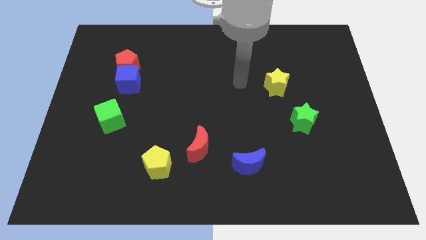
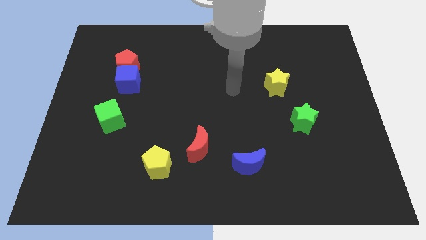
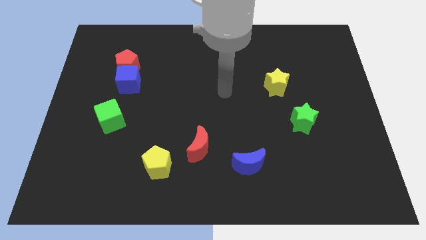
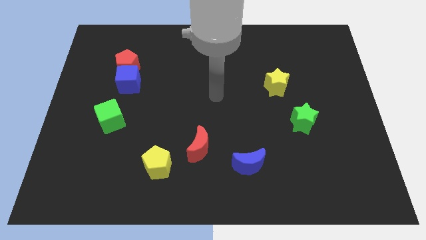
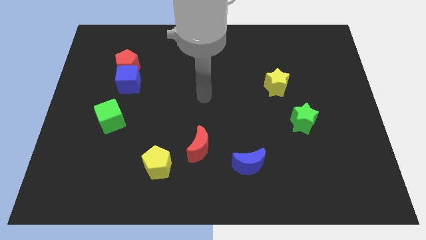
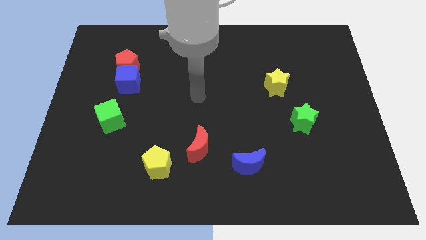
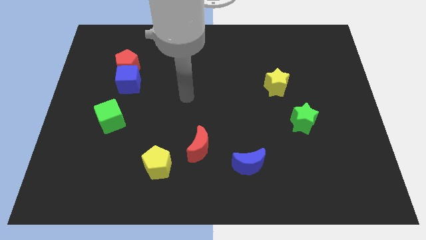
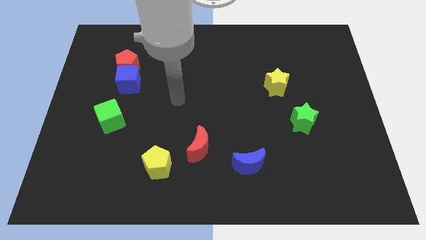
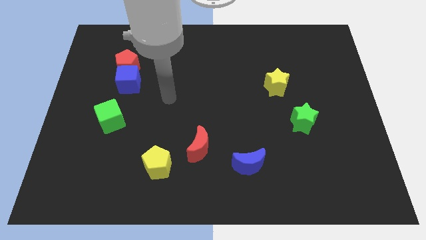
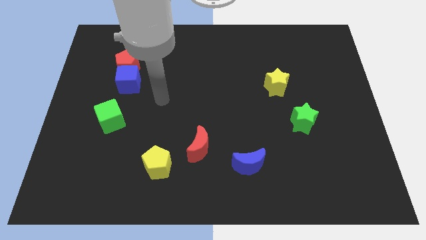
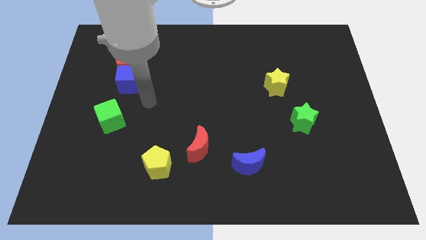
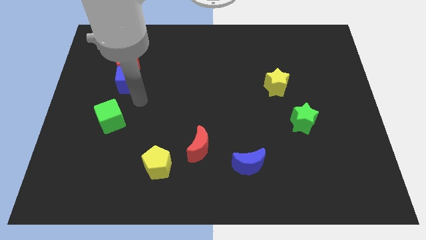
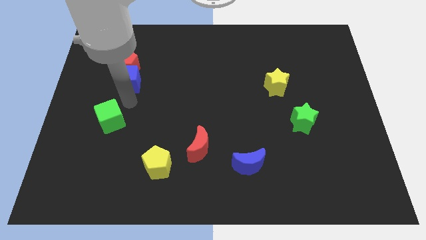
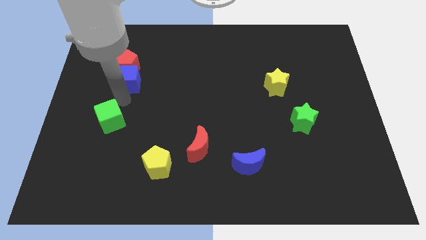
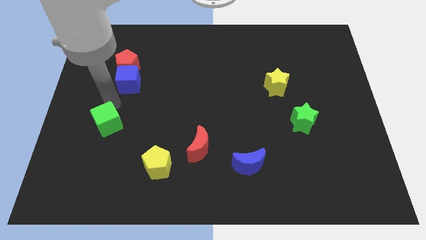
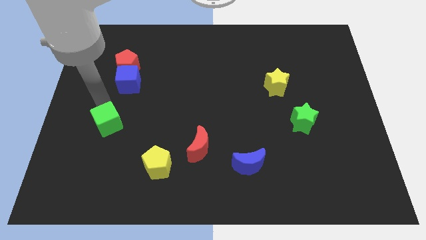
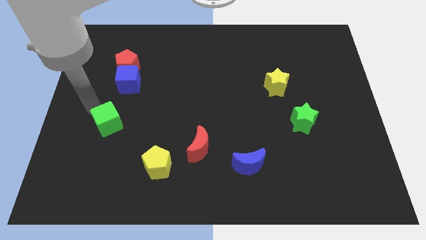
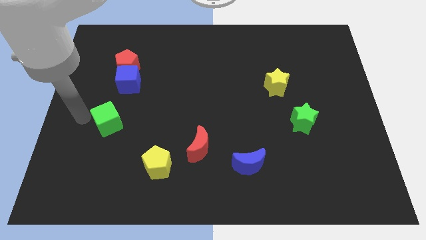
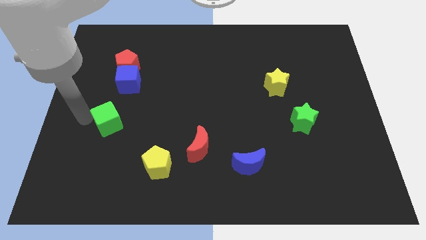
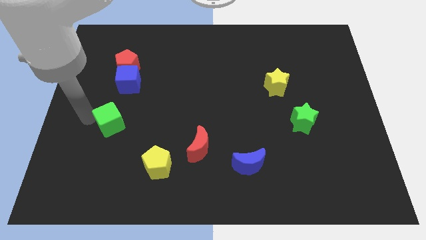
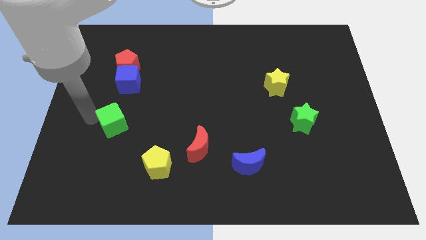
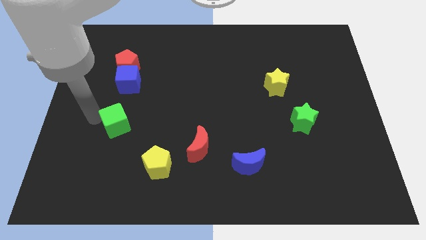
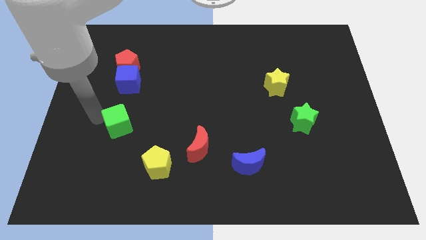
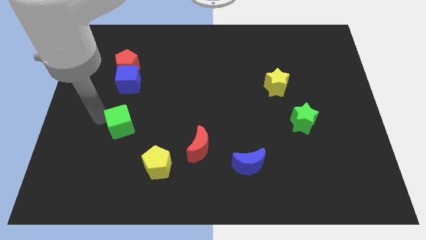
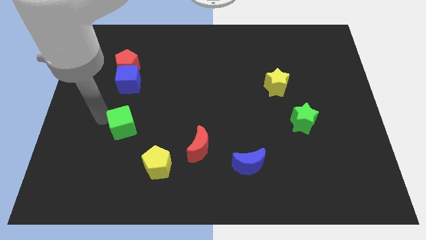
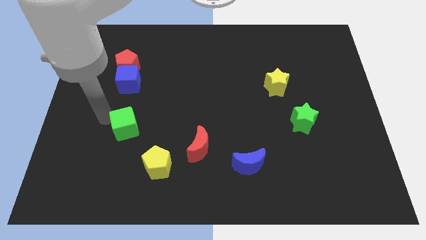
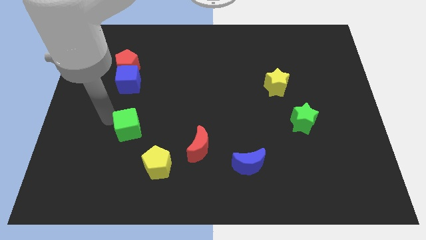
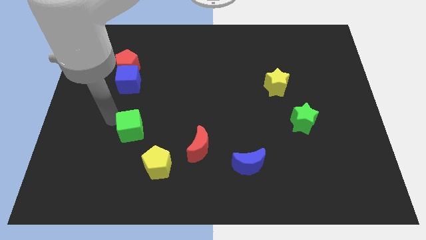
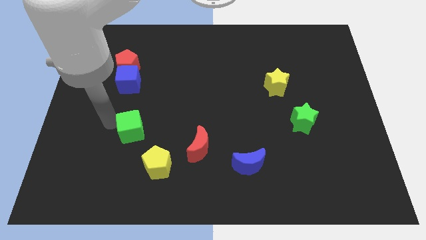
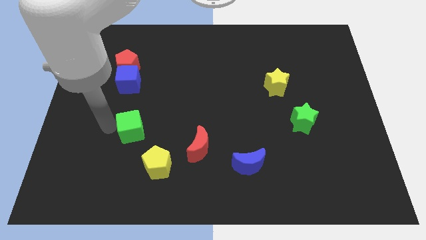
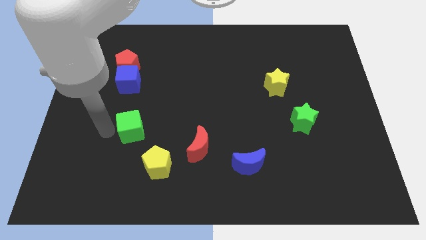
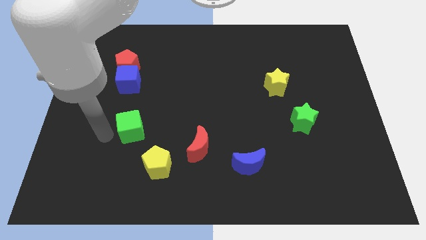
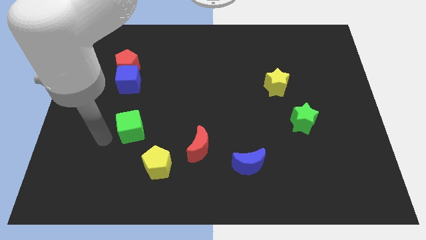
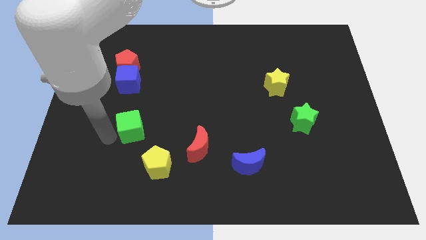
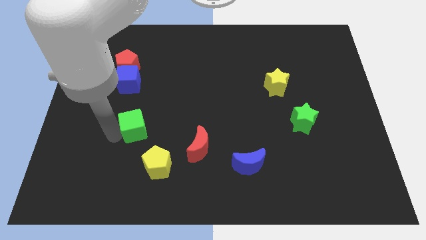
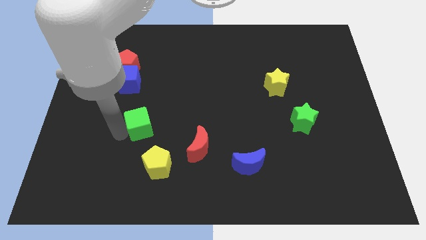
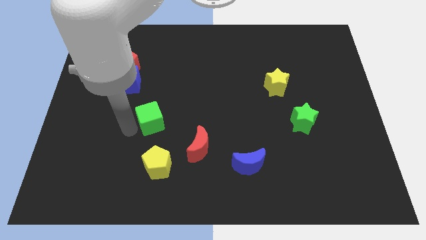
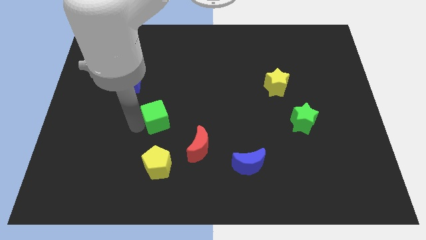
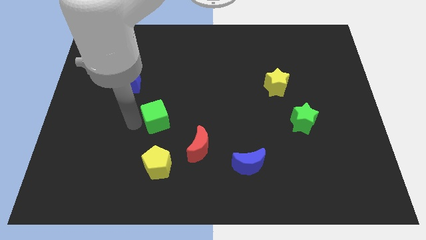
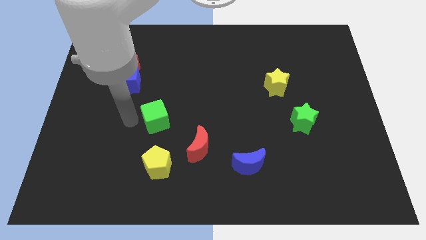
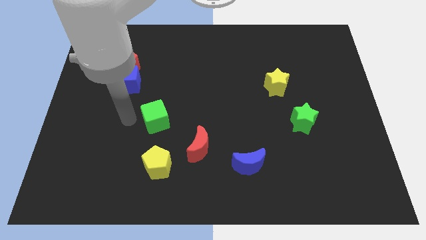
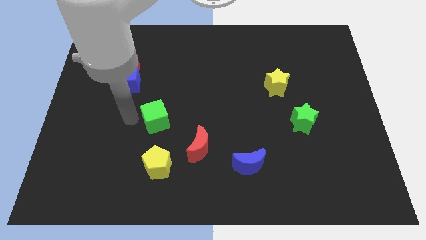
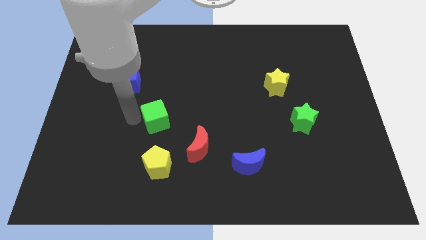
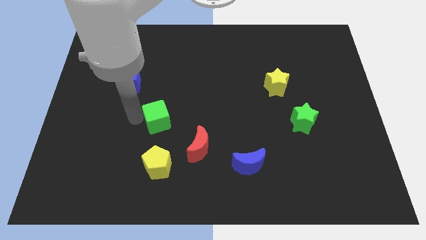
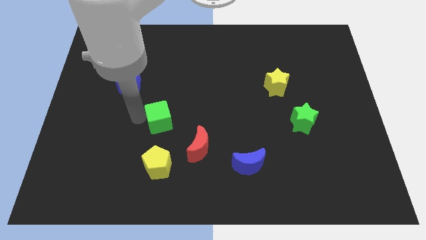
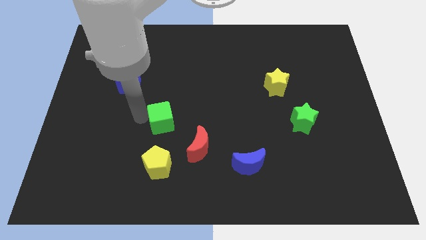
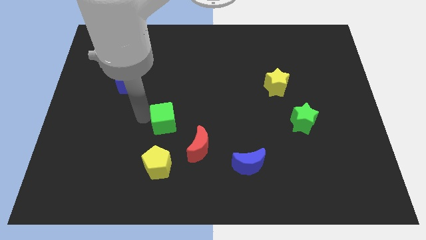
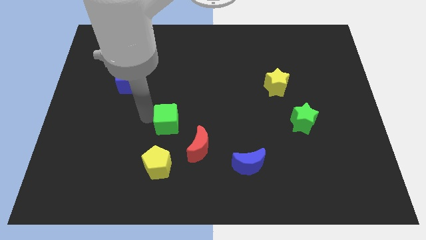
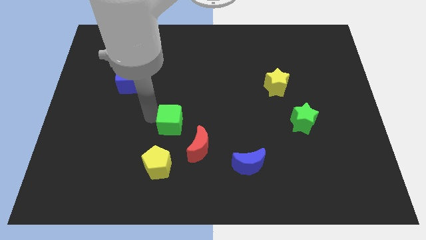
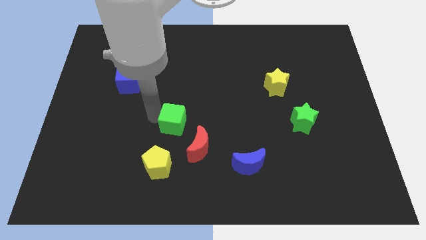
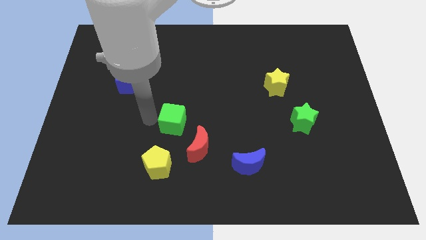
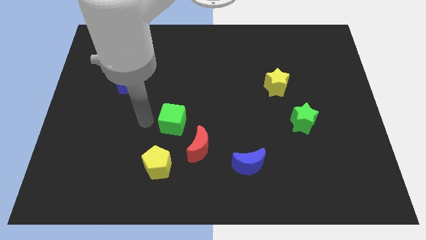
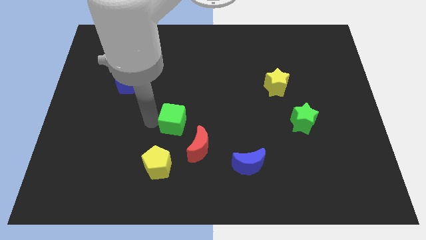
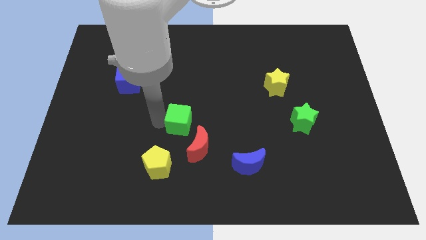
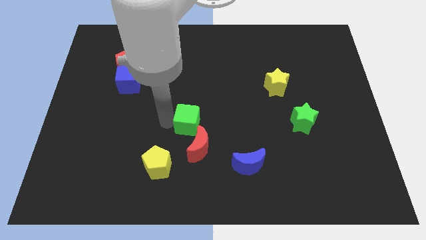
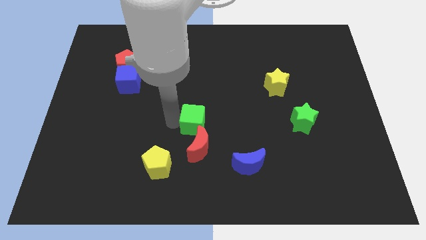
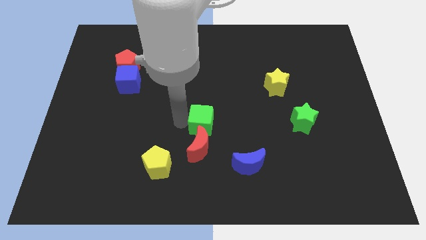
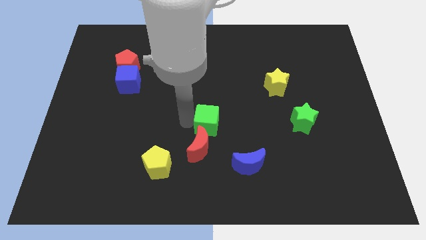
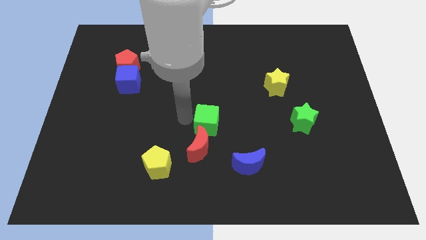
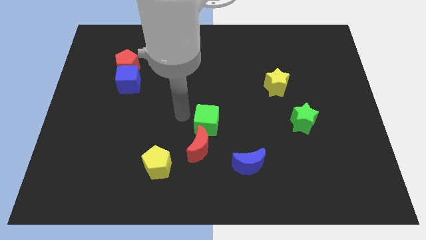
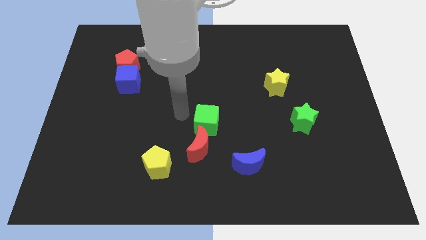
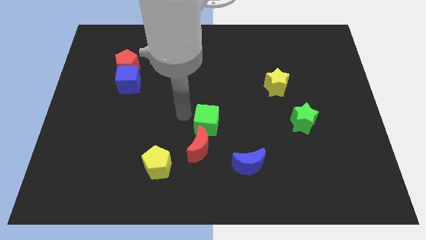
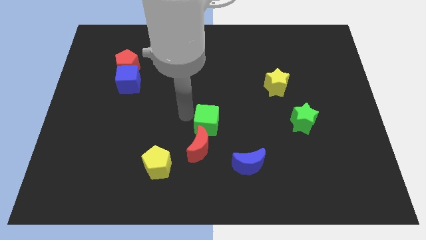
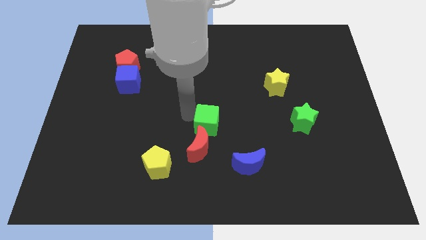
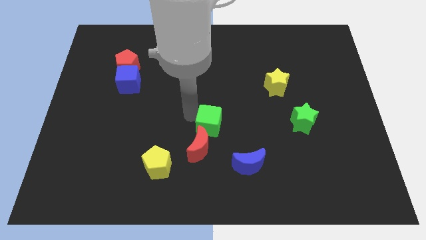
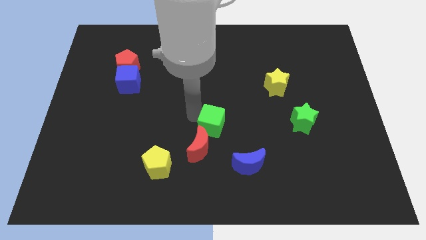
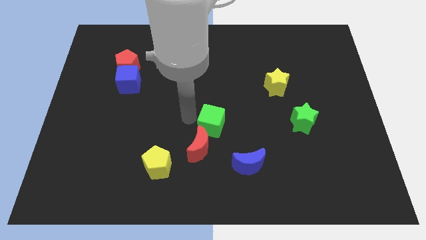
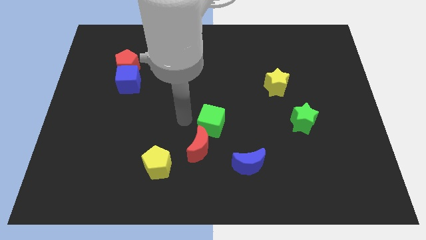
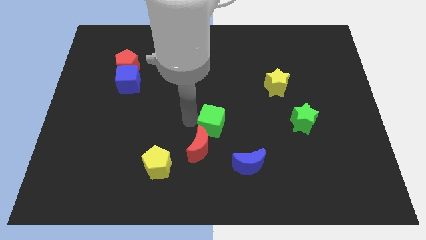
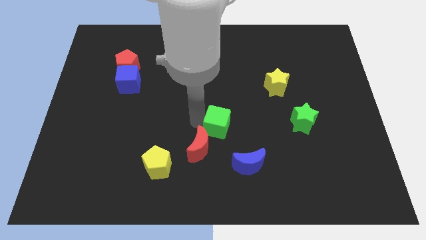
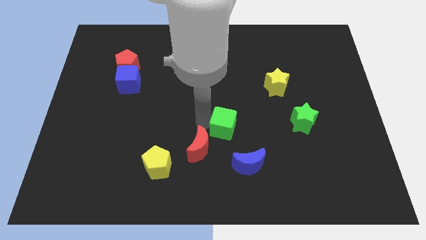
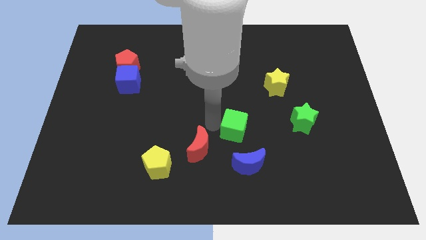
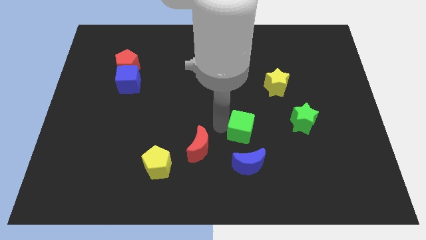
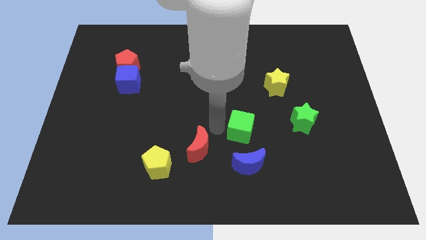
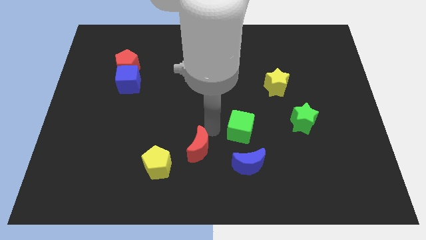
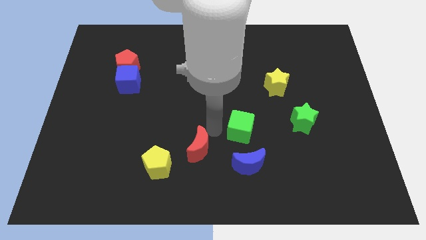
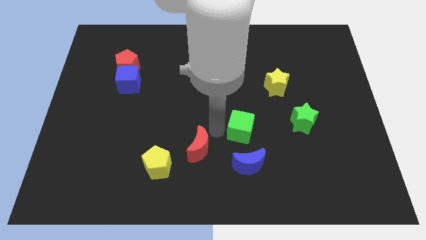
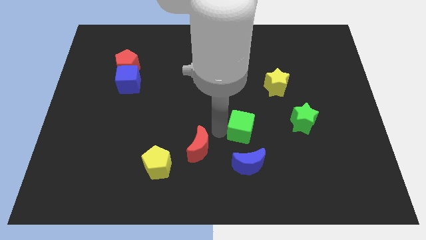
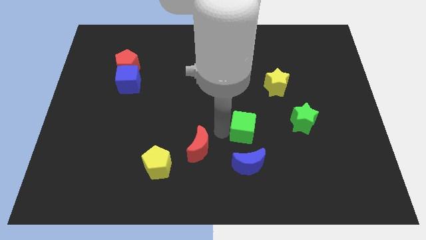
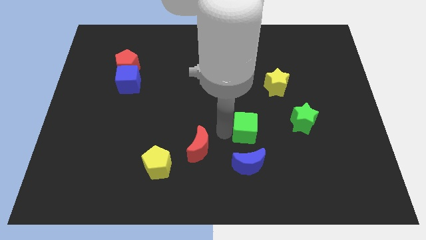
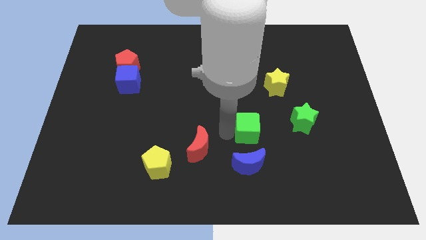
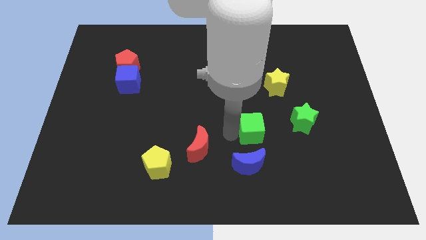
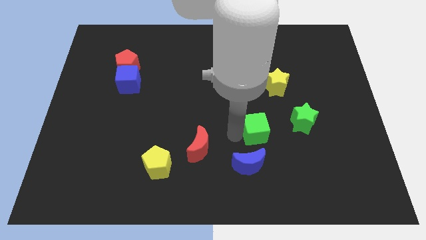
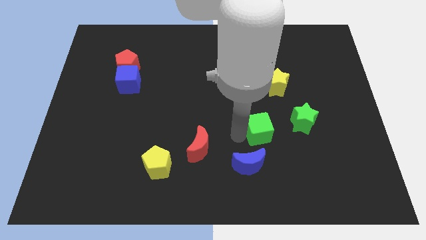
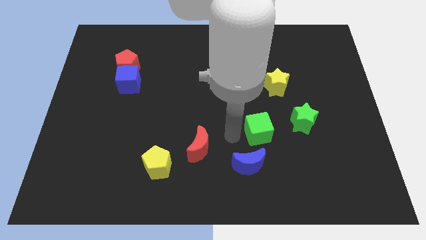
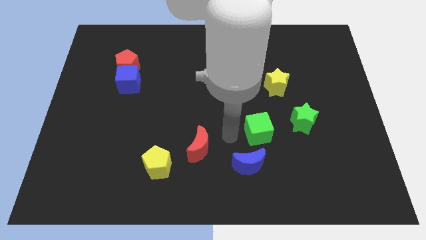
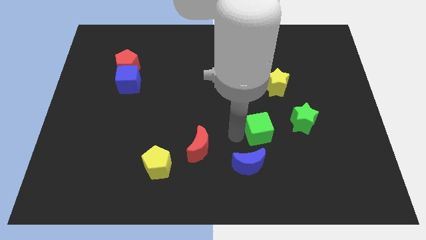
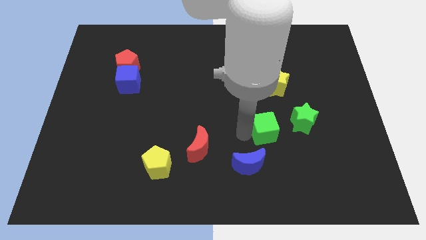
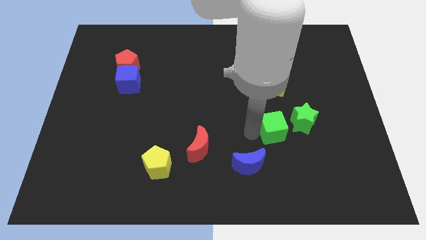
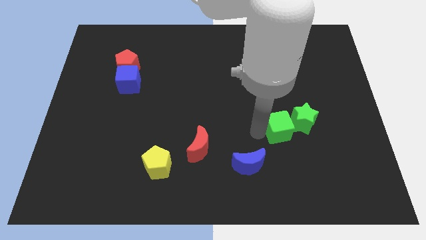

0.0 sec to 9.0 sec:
push the green cube towards the green star
